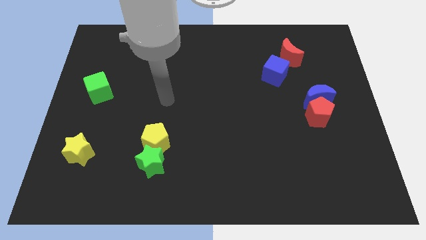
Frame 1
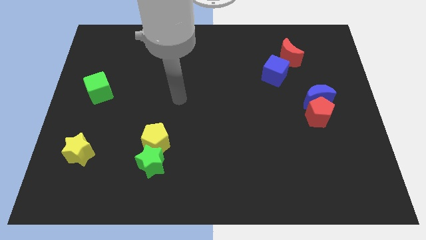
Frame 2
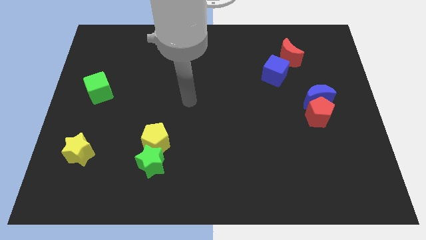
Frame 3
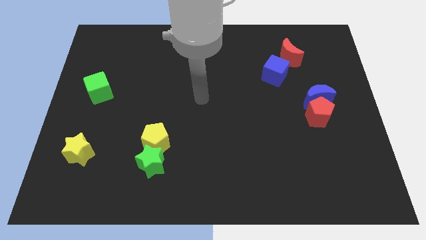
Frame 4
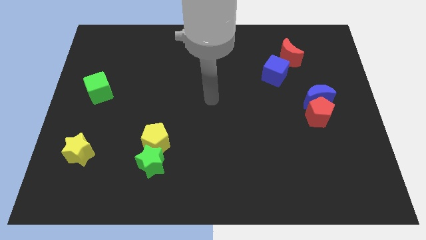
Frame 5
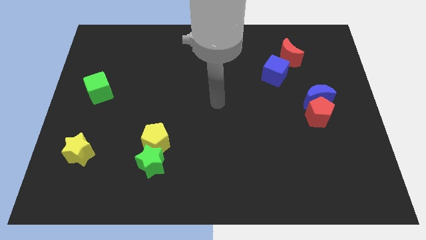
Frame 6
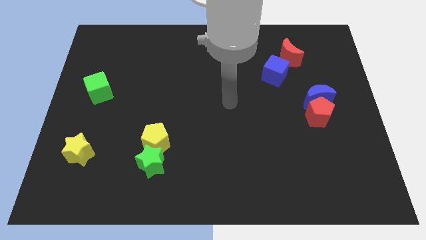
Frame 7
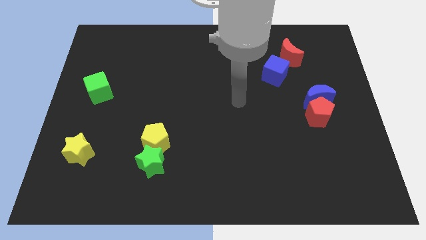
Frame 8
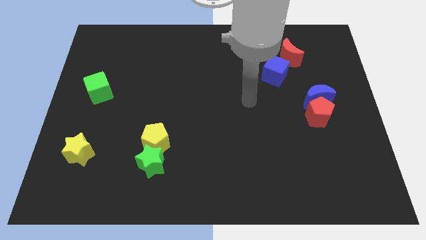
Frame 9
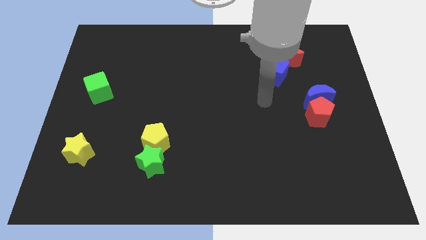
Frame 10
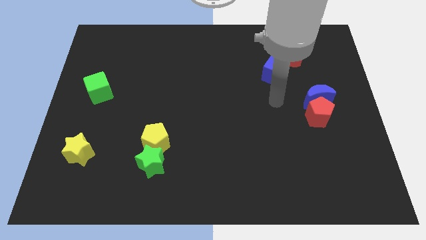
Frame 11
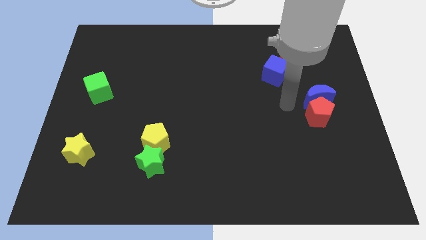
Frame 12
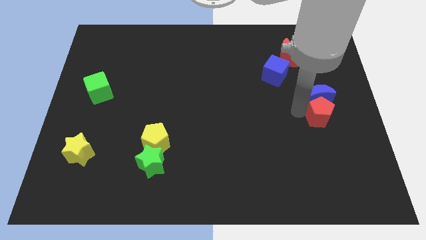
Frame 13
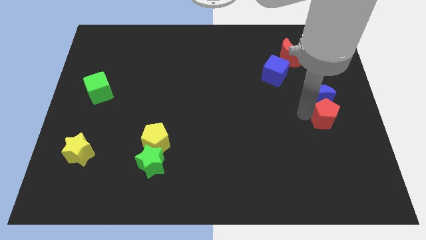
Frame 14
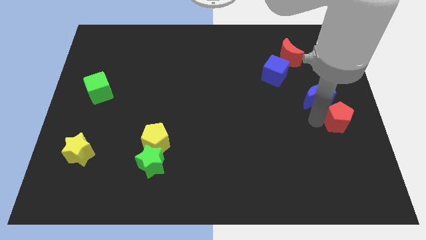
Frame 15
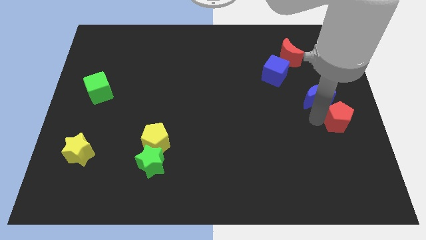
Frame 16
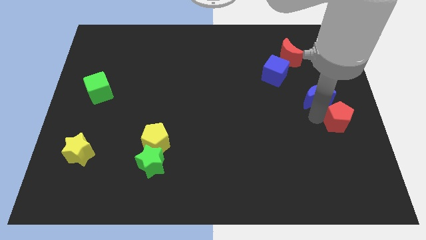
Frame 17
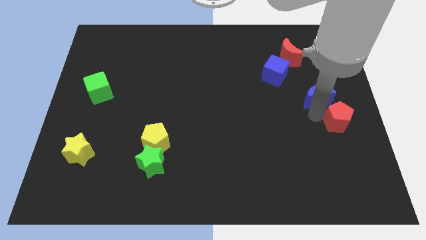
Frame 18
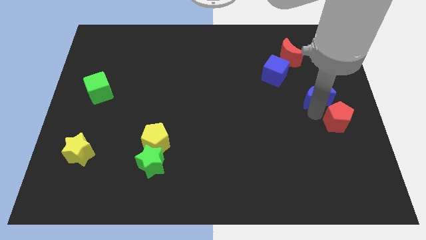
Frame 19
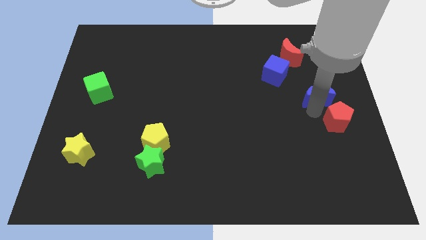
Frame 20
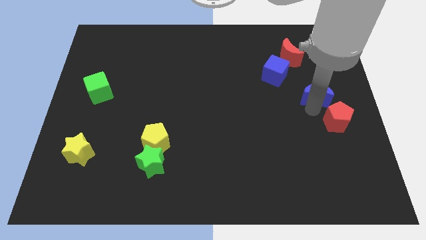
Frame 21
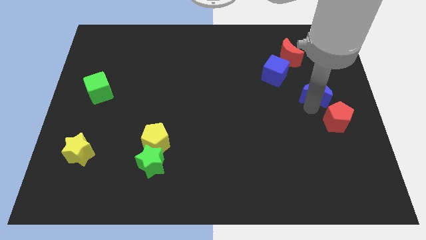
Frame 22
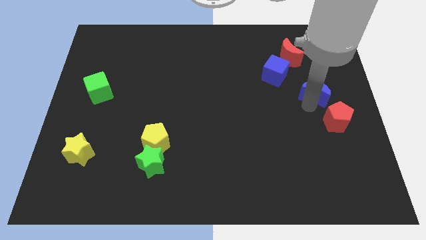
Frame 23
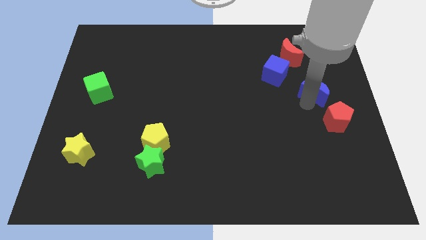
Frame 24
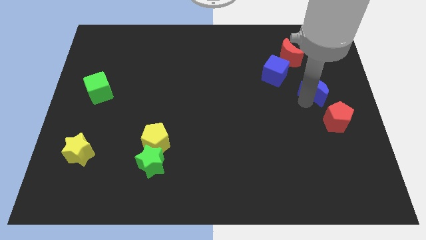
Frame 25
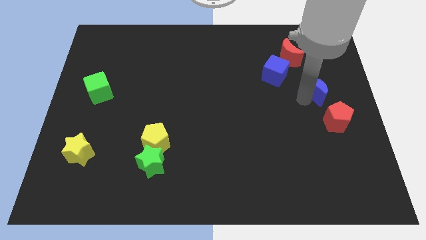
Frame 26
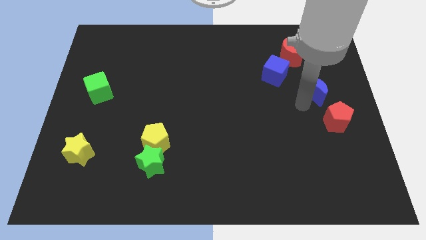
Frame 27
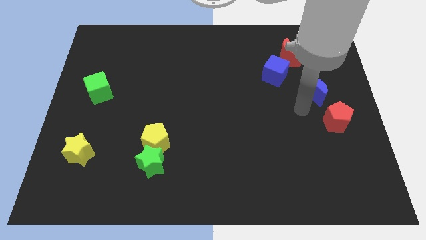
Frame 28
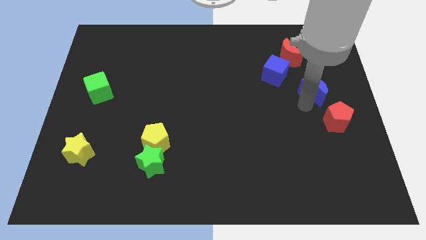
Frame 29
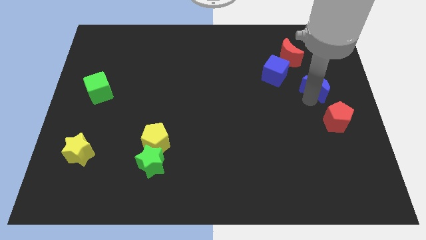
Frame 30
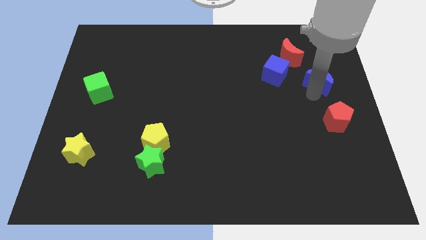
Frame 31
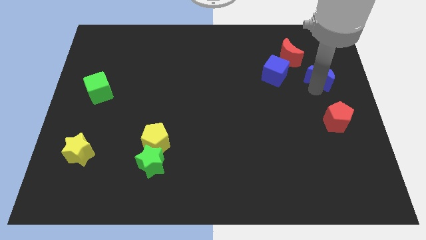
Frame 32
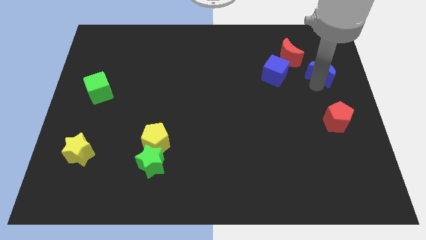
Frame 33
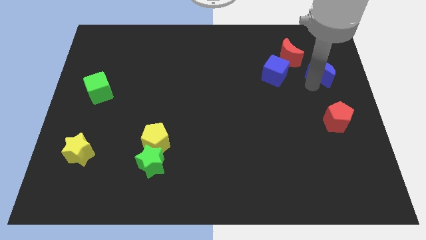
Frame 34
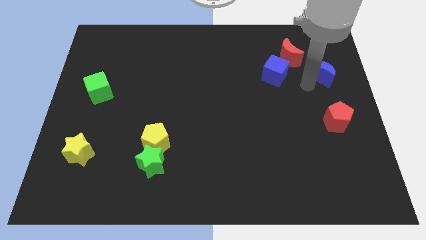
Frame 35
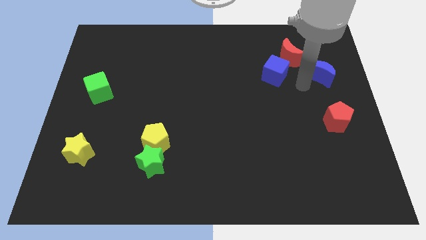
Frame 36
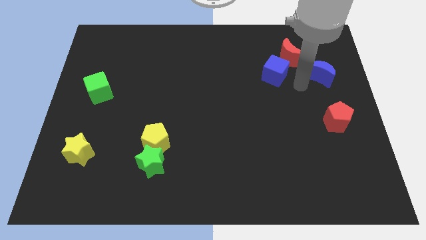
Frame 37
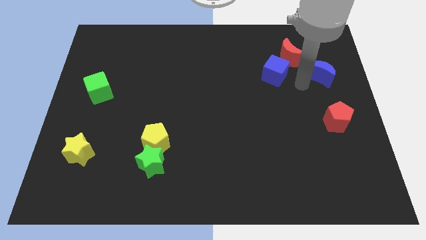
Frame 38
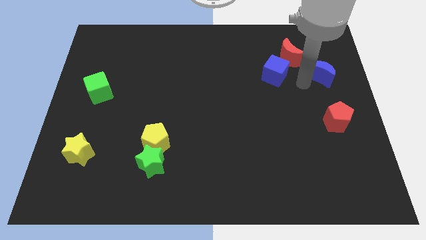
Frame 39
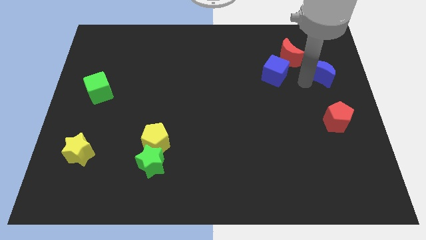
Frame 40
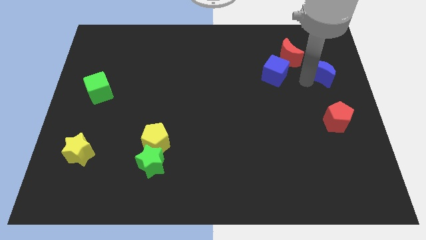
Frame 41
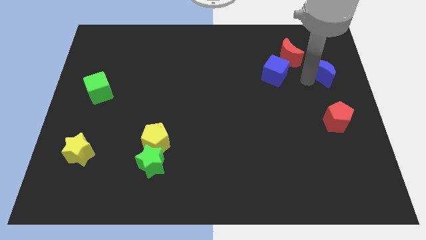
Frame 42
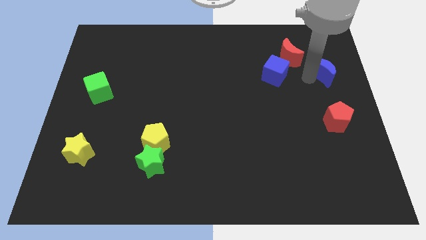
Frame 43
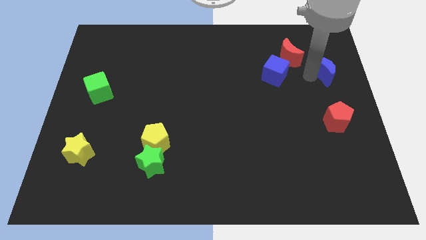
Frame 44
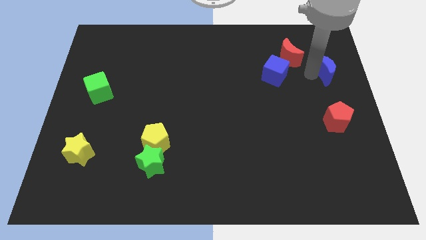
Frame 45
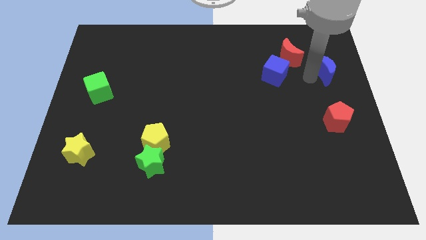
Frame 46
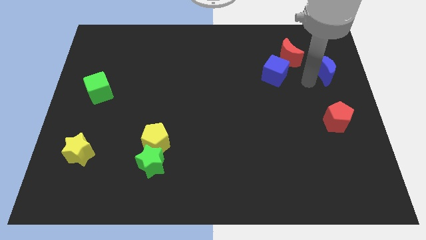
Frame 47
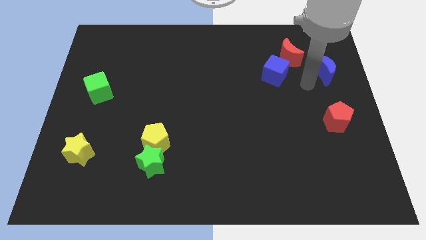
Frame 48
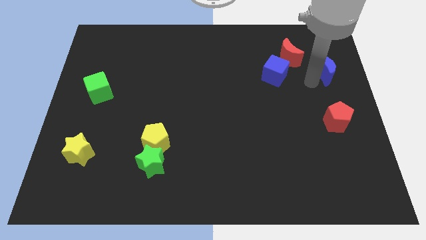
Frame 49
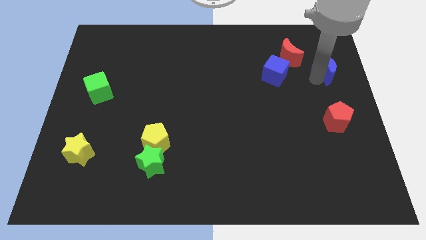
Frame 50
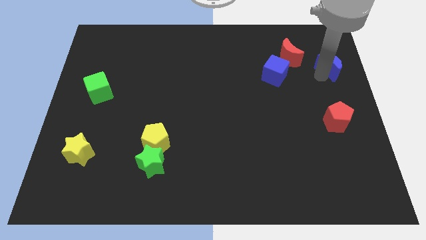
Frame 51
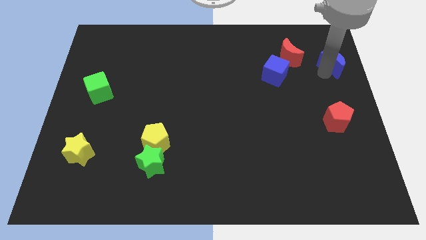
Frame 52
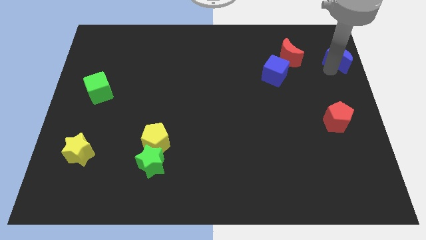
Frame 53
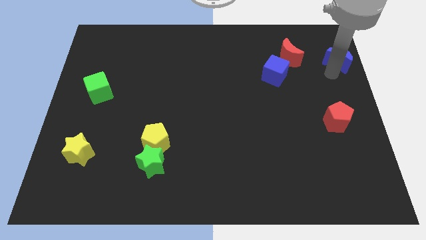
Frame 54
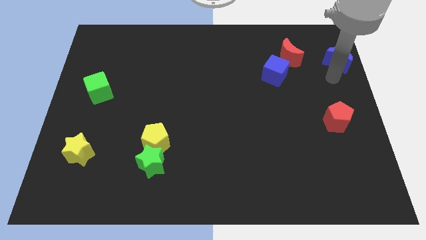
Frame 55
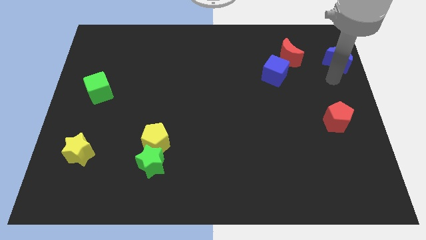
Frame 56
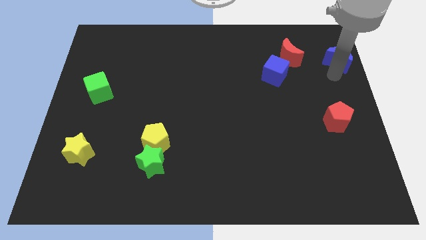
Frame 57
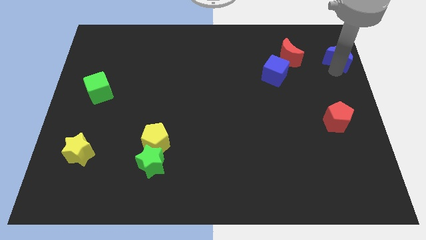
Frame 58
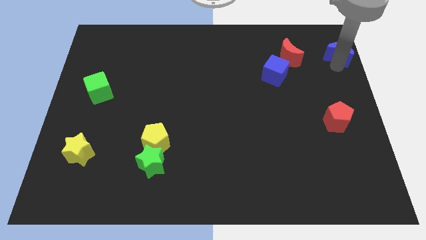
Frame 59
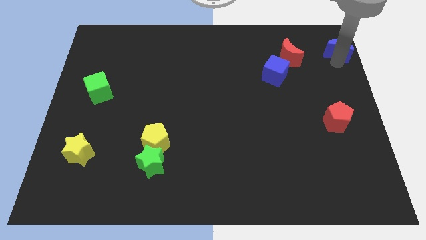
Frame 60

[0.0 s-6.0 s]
push the blue moon to the top right
